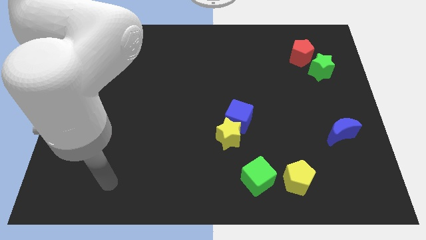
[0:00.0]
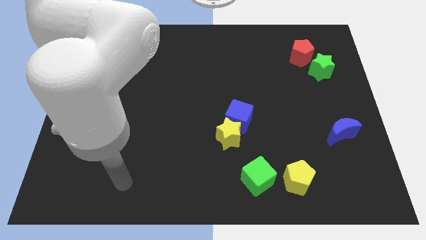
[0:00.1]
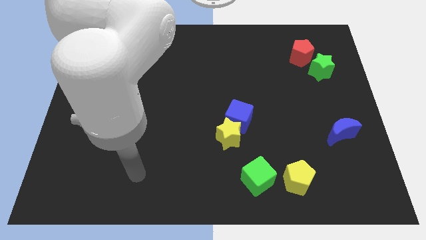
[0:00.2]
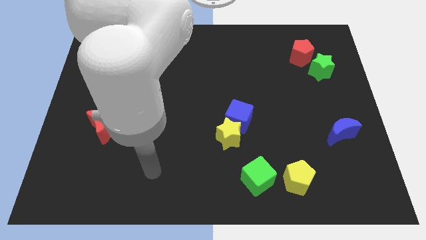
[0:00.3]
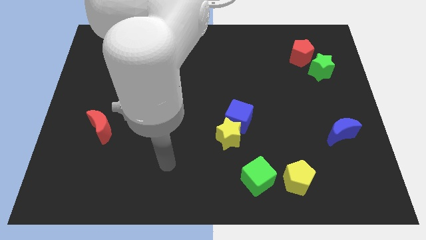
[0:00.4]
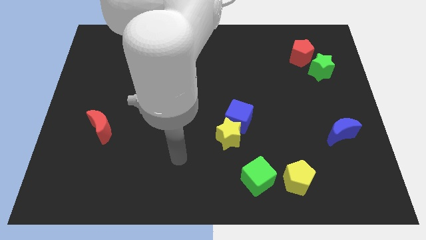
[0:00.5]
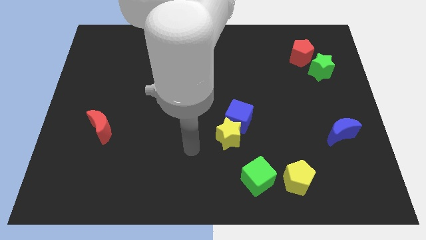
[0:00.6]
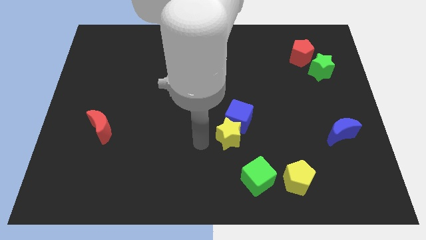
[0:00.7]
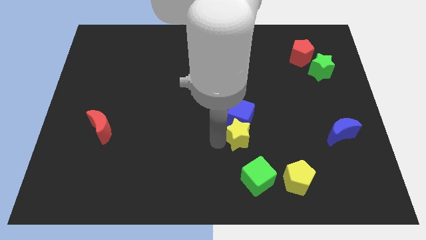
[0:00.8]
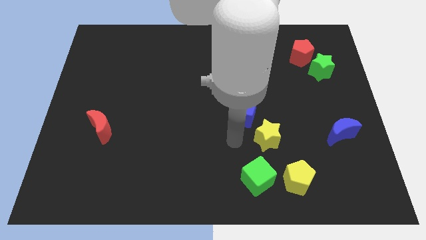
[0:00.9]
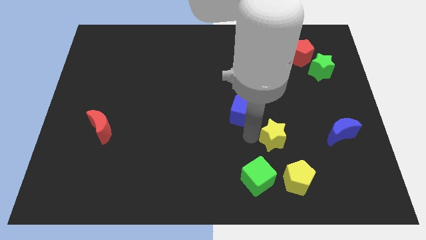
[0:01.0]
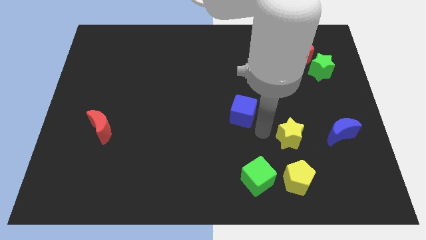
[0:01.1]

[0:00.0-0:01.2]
move the blue cube away from the yellow star

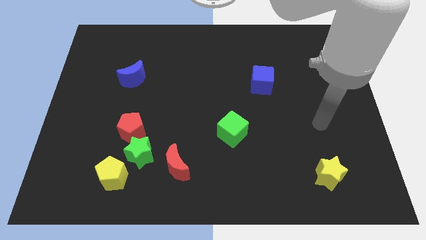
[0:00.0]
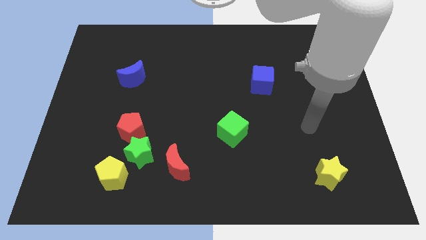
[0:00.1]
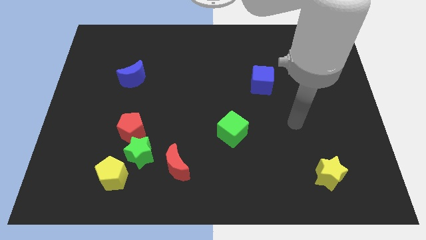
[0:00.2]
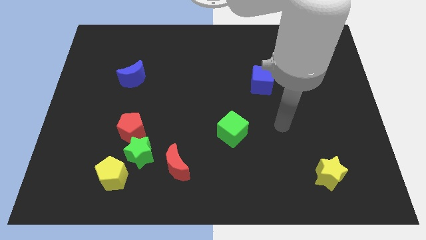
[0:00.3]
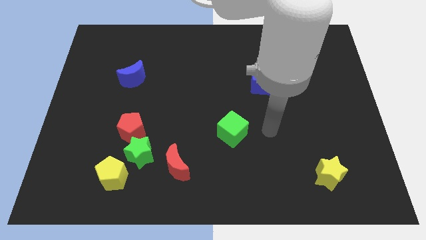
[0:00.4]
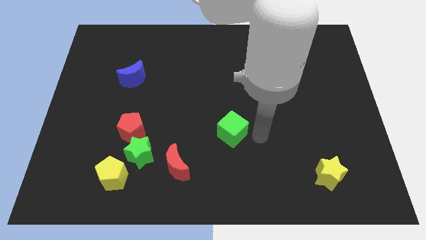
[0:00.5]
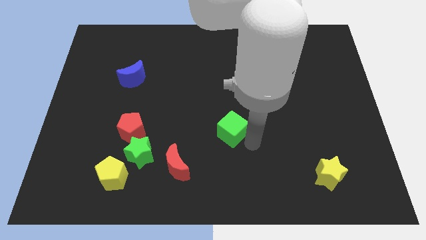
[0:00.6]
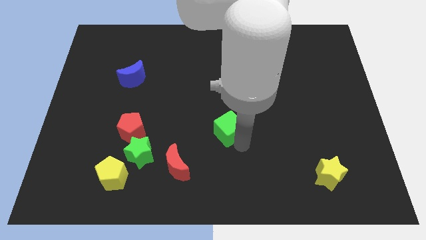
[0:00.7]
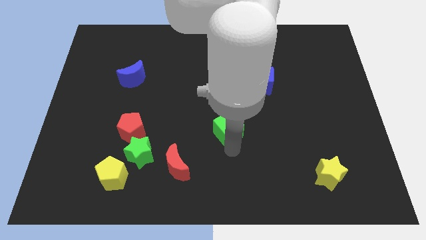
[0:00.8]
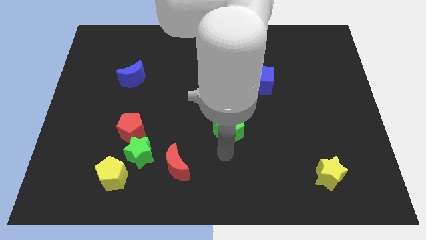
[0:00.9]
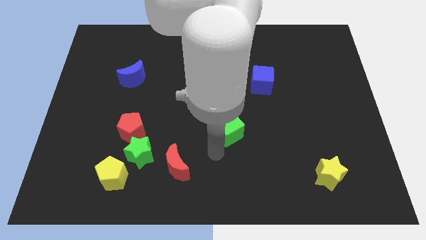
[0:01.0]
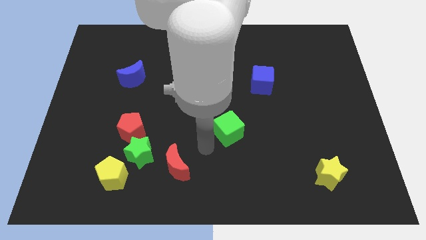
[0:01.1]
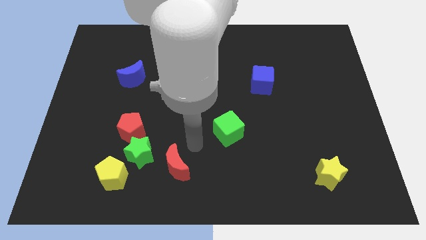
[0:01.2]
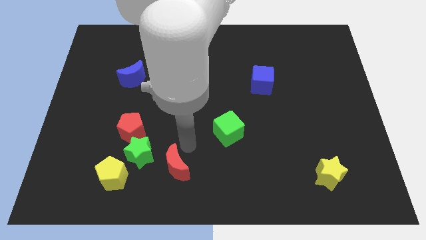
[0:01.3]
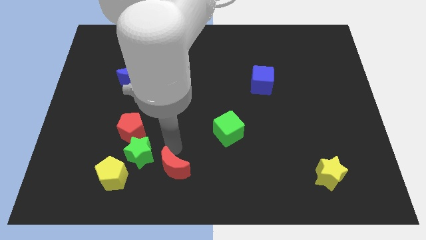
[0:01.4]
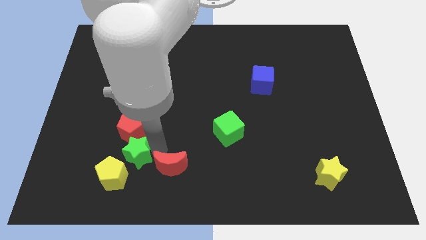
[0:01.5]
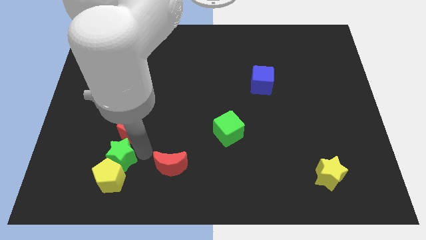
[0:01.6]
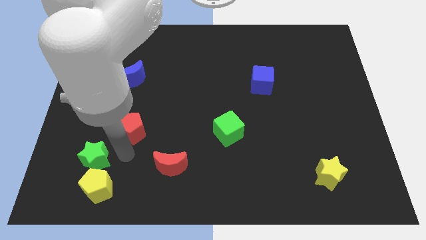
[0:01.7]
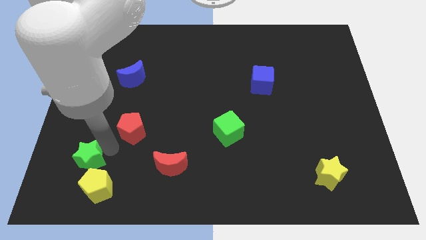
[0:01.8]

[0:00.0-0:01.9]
move the red pentagon away from the green star

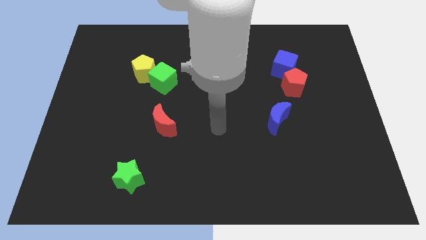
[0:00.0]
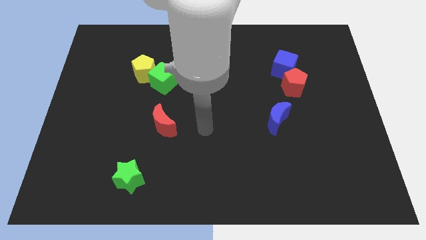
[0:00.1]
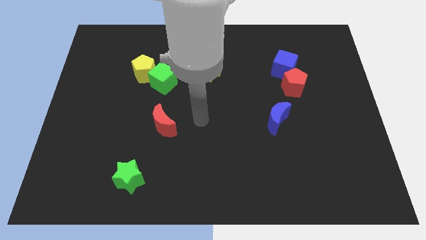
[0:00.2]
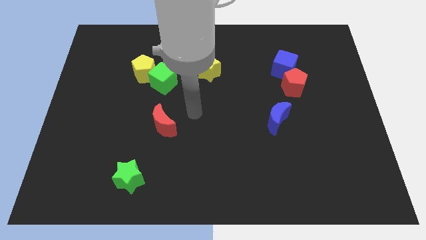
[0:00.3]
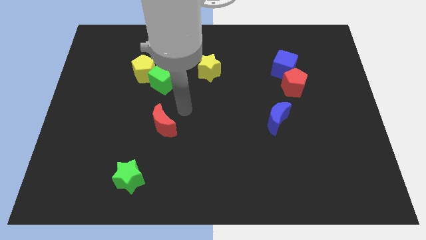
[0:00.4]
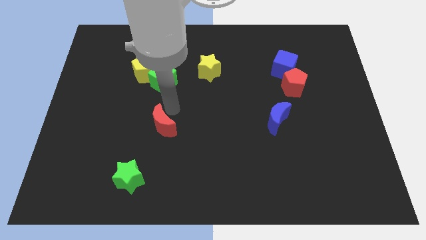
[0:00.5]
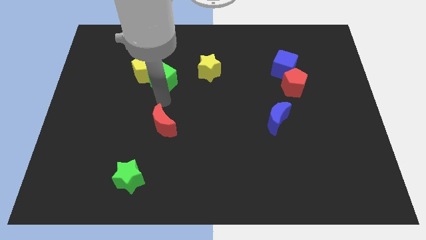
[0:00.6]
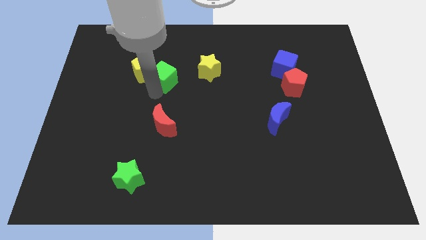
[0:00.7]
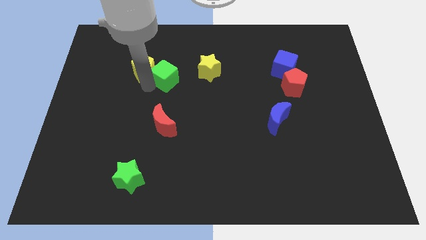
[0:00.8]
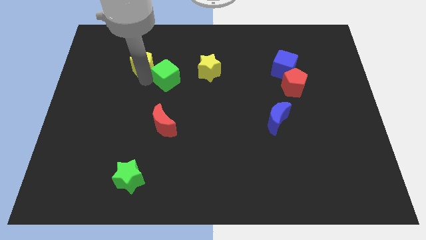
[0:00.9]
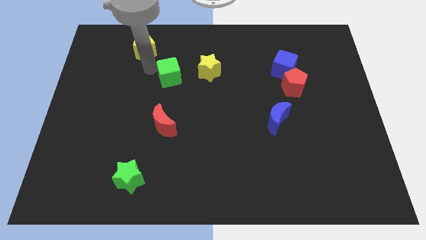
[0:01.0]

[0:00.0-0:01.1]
separate the green cube from the yellow pentagon

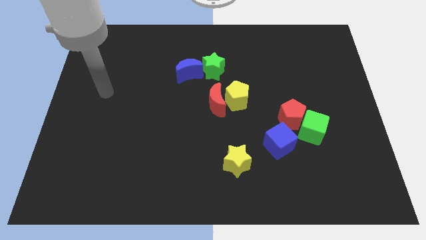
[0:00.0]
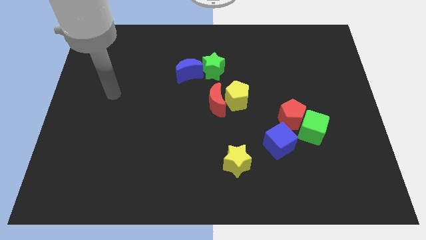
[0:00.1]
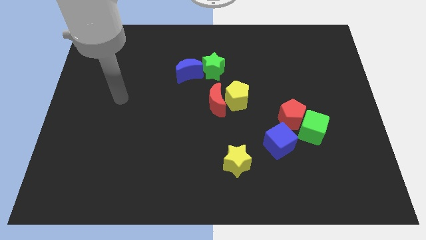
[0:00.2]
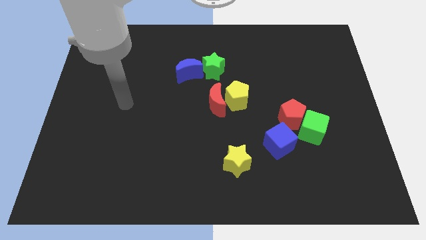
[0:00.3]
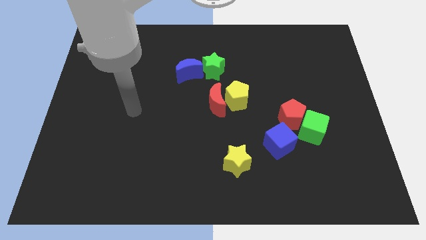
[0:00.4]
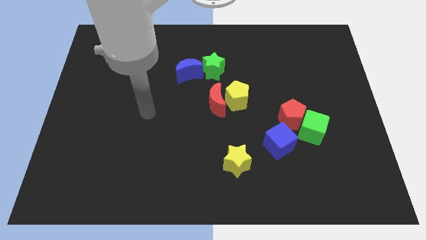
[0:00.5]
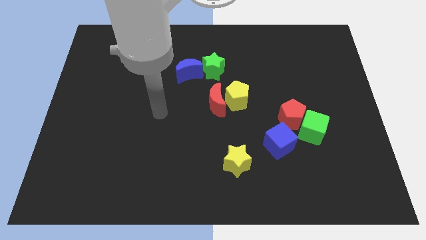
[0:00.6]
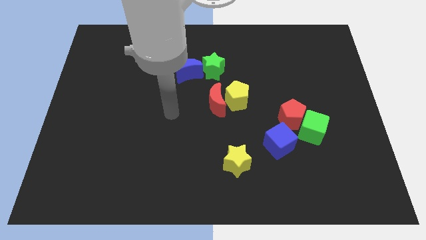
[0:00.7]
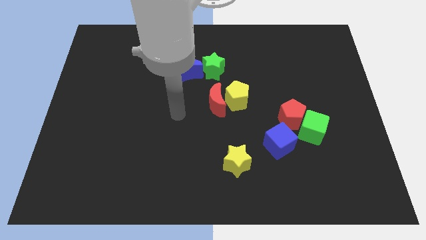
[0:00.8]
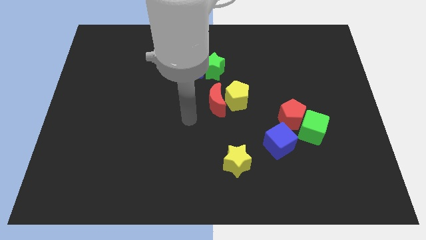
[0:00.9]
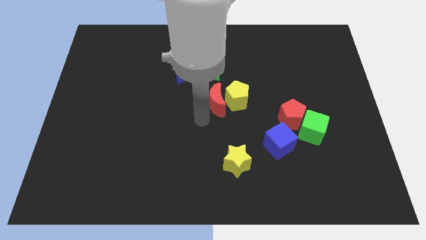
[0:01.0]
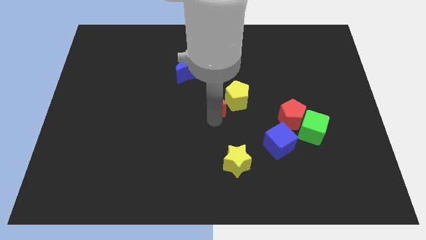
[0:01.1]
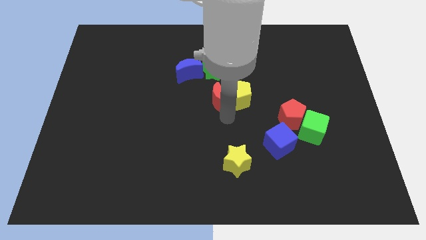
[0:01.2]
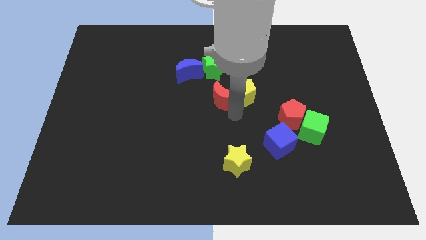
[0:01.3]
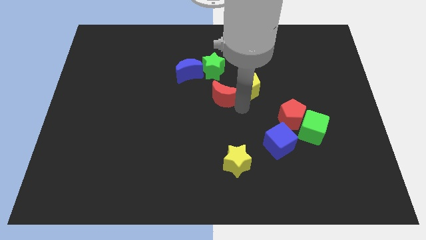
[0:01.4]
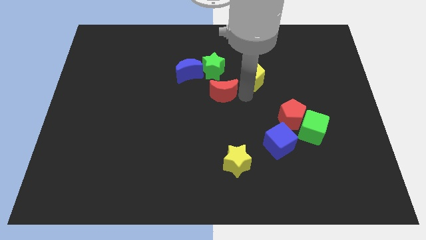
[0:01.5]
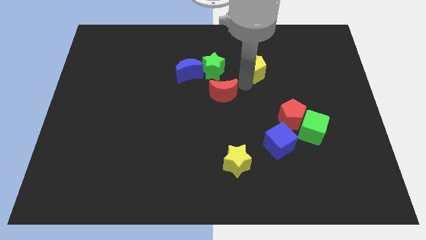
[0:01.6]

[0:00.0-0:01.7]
pull the red moon apart from the yellow pentagon

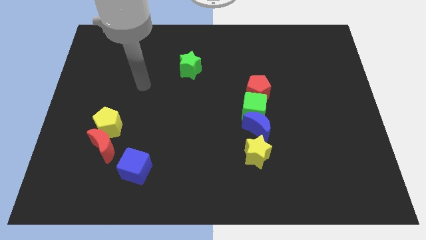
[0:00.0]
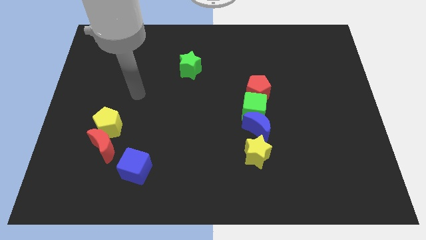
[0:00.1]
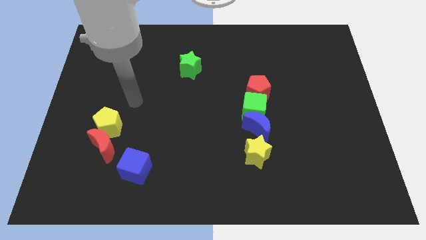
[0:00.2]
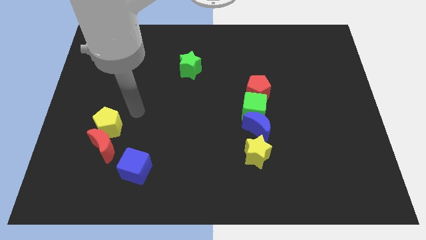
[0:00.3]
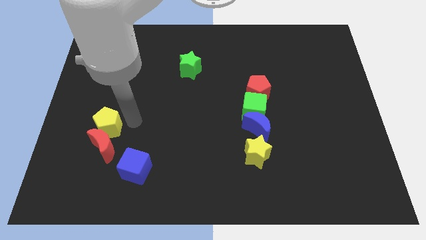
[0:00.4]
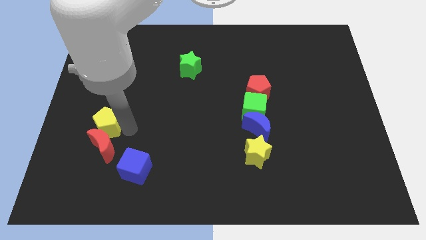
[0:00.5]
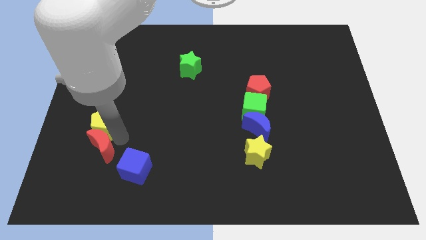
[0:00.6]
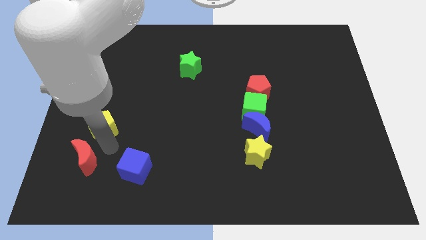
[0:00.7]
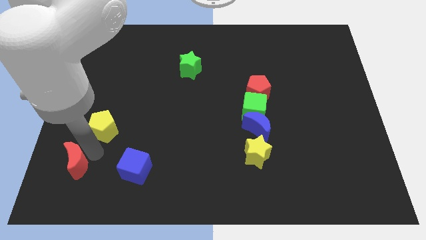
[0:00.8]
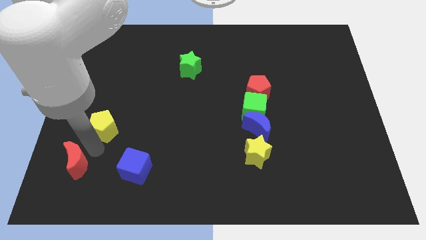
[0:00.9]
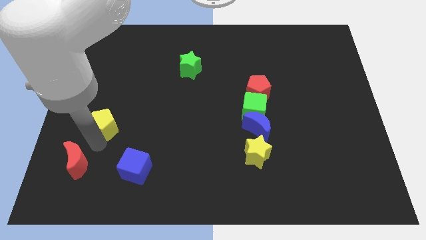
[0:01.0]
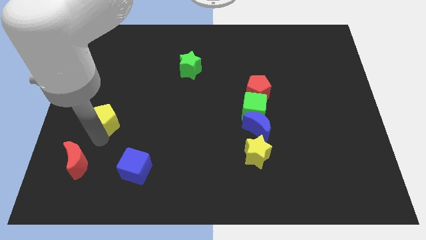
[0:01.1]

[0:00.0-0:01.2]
separate the yellow pentagon from the red moon

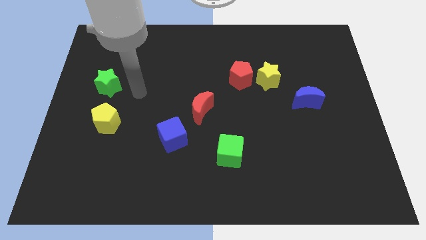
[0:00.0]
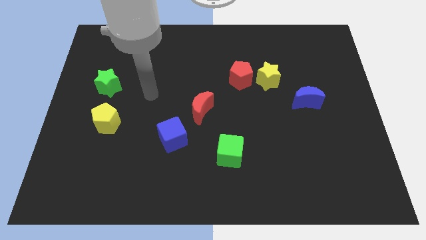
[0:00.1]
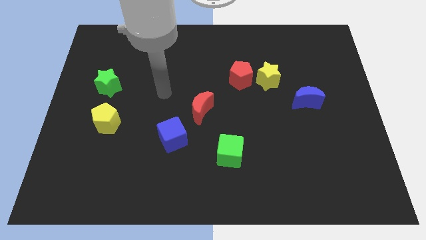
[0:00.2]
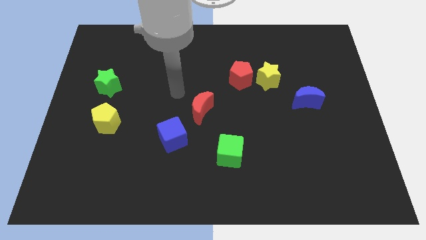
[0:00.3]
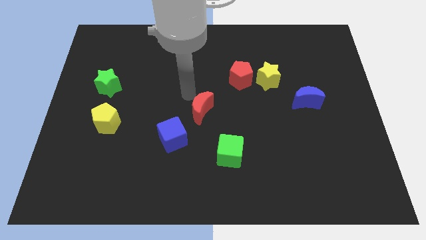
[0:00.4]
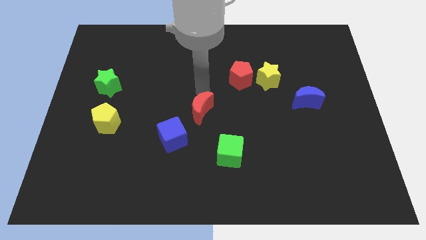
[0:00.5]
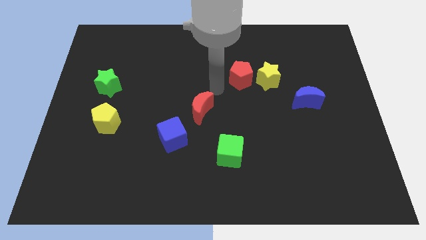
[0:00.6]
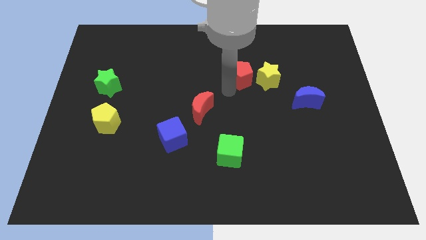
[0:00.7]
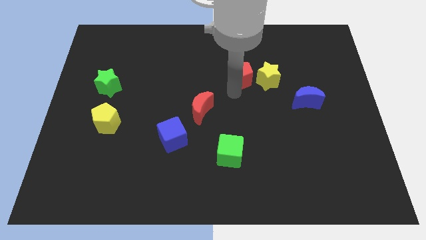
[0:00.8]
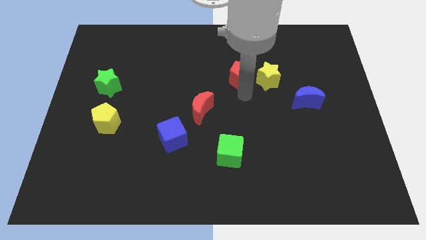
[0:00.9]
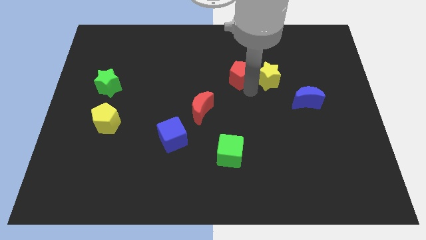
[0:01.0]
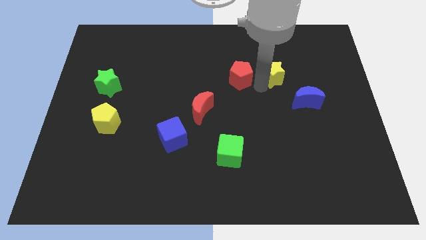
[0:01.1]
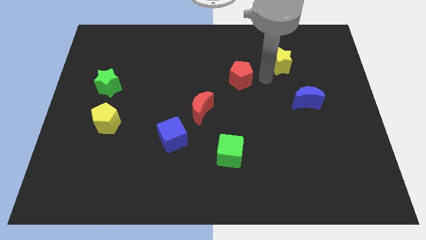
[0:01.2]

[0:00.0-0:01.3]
pull the red pentagon apart from the yellow star

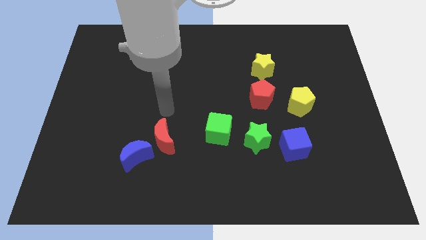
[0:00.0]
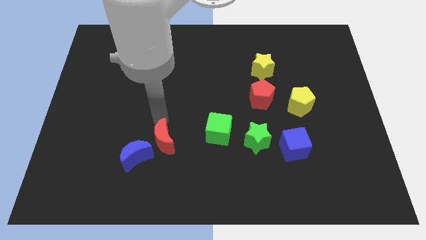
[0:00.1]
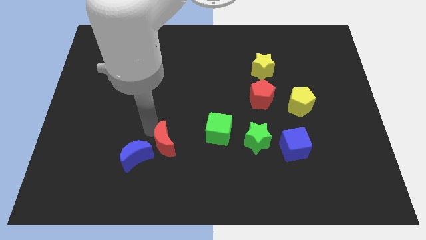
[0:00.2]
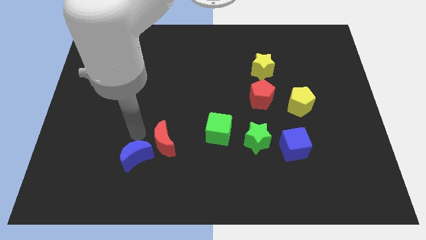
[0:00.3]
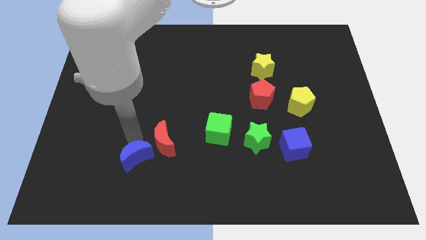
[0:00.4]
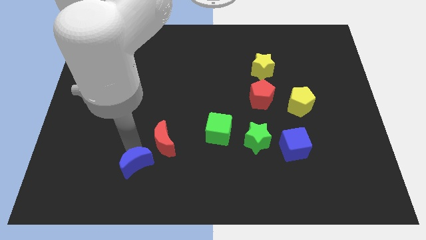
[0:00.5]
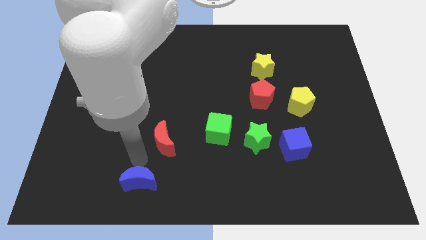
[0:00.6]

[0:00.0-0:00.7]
separate the red moon from the blue moon

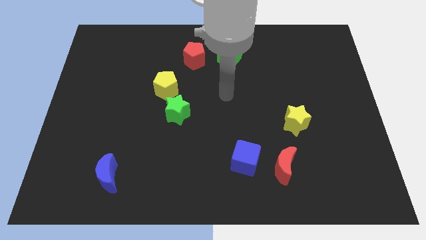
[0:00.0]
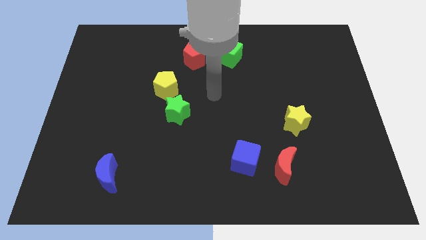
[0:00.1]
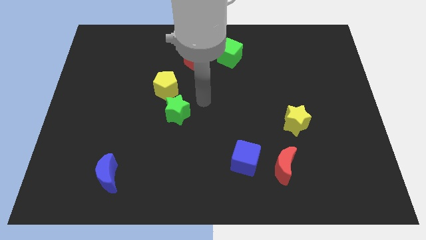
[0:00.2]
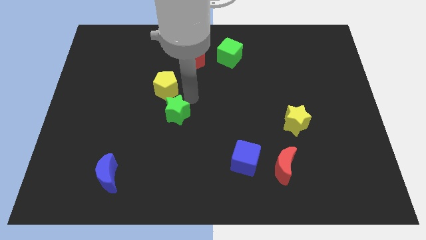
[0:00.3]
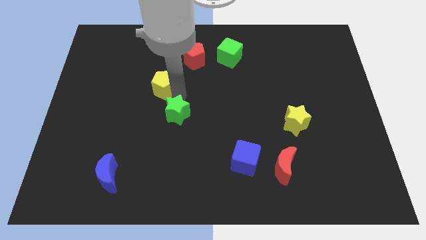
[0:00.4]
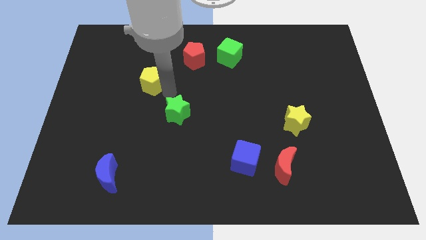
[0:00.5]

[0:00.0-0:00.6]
pull the green star apart from the yellow pentagon
